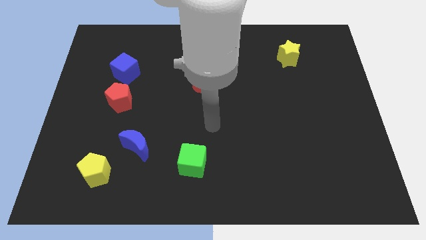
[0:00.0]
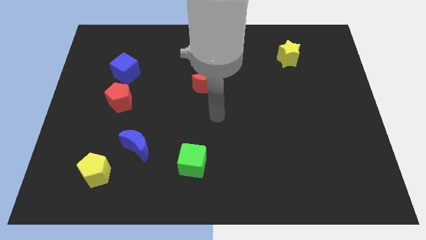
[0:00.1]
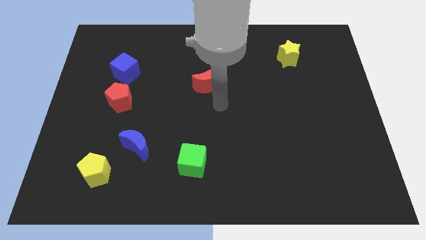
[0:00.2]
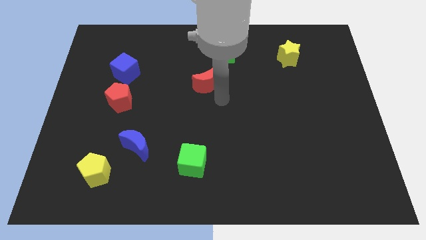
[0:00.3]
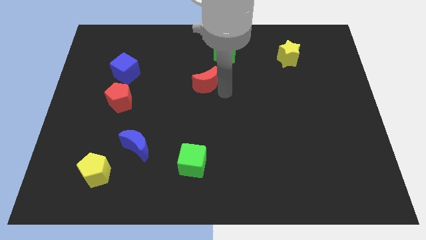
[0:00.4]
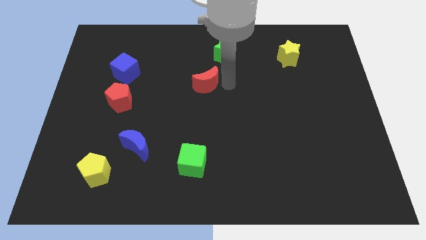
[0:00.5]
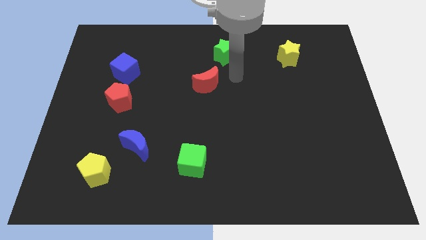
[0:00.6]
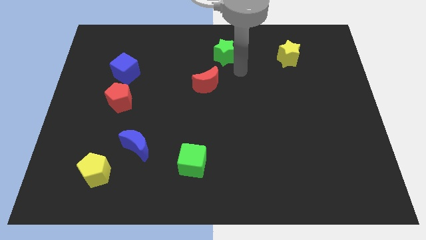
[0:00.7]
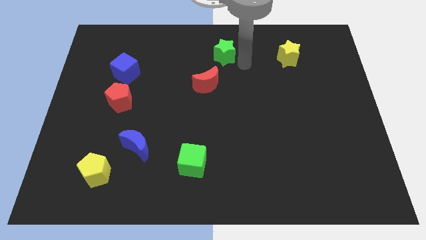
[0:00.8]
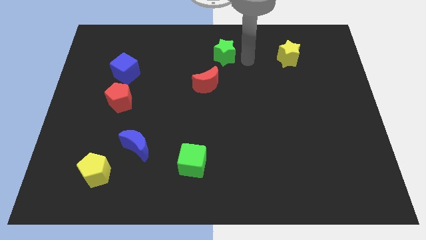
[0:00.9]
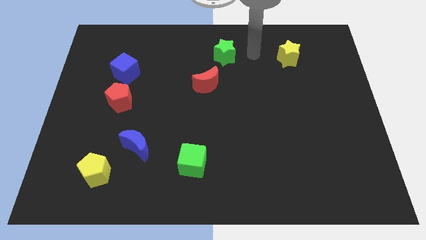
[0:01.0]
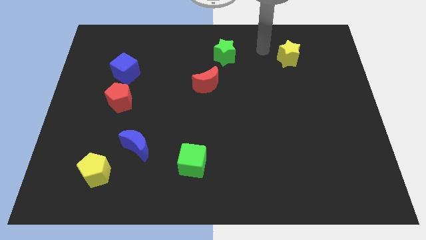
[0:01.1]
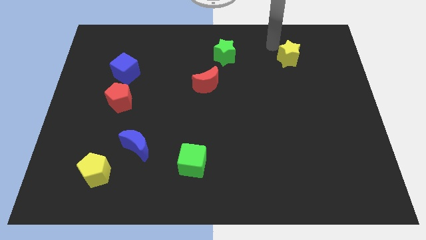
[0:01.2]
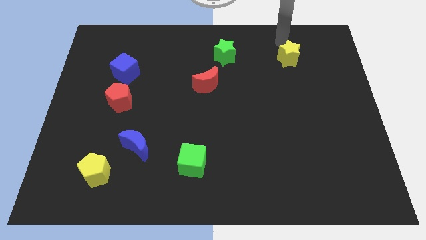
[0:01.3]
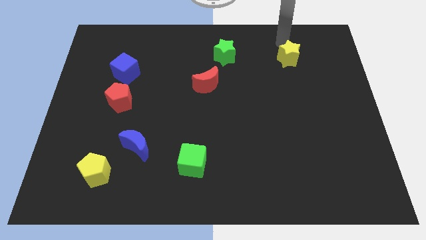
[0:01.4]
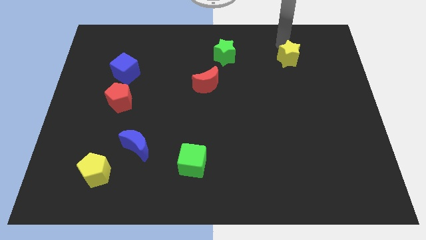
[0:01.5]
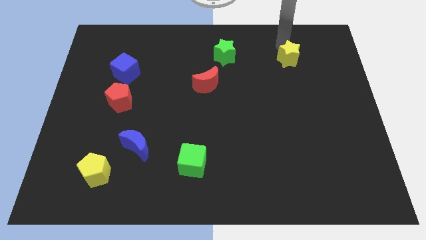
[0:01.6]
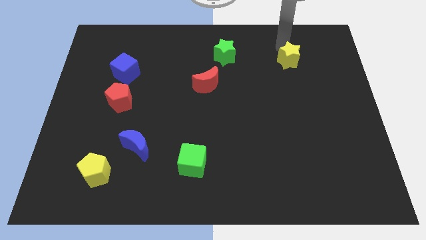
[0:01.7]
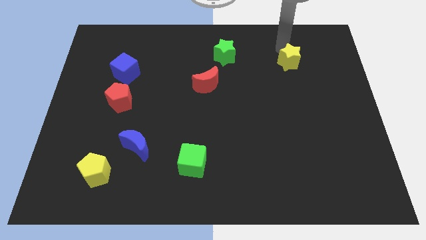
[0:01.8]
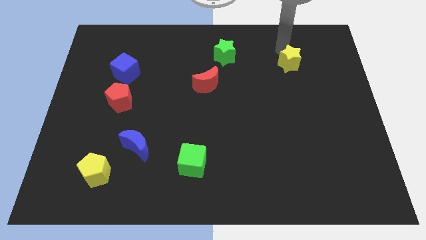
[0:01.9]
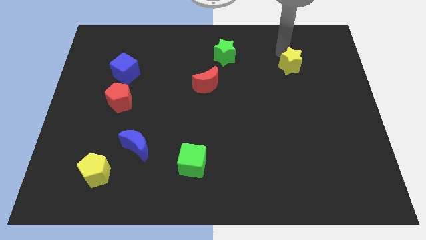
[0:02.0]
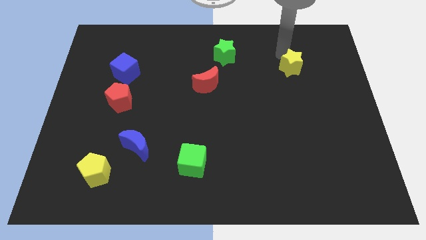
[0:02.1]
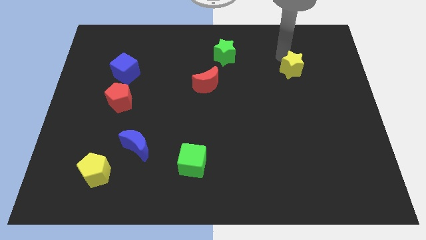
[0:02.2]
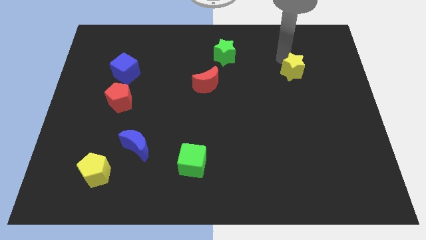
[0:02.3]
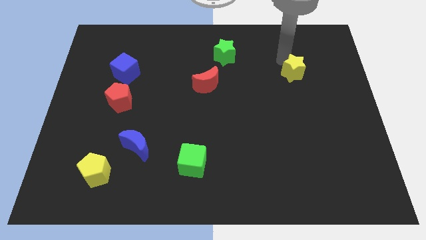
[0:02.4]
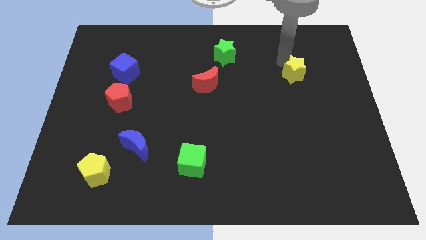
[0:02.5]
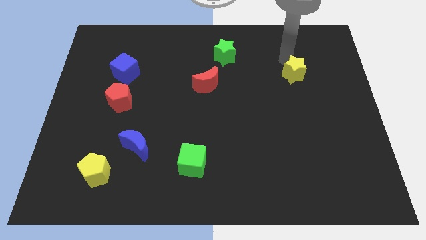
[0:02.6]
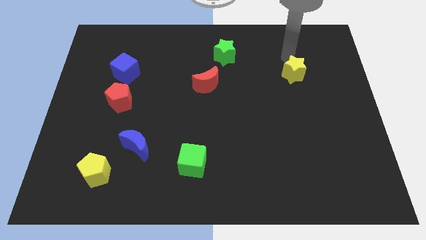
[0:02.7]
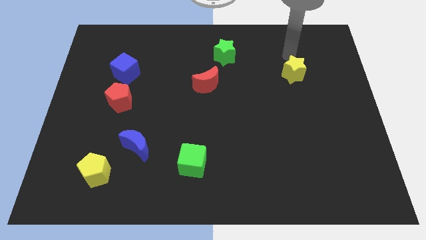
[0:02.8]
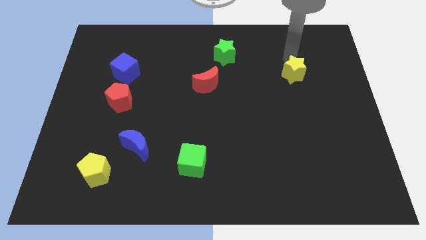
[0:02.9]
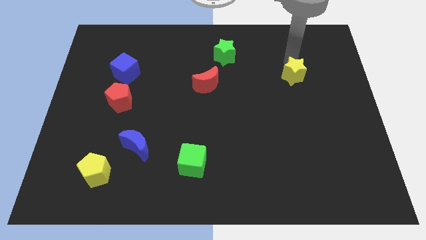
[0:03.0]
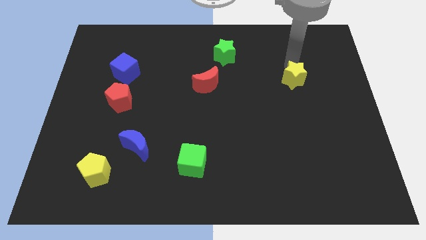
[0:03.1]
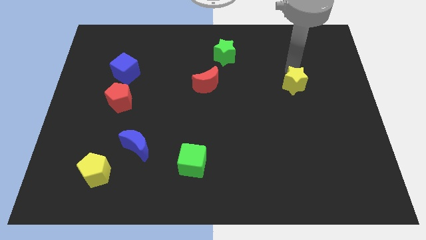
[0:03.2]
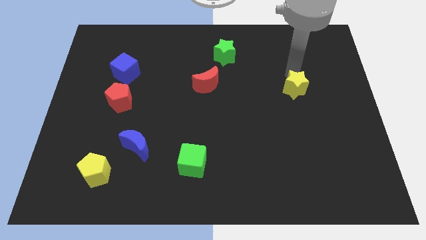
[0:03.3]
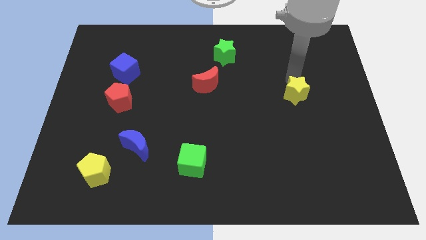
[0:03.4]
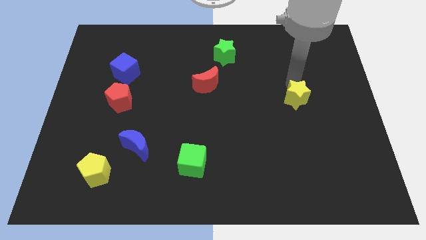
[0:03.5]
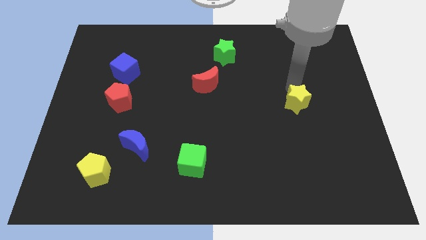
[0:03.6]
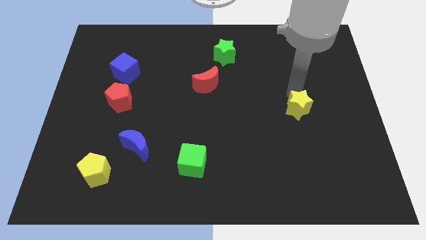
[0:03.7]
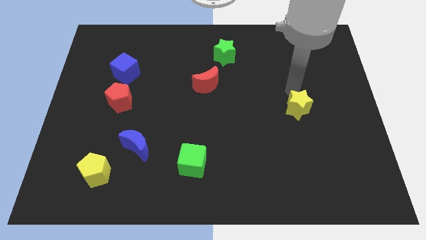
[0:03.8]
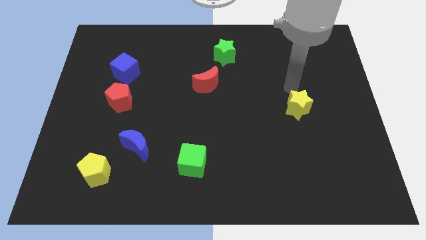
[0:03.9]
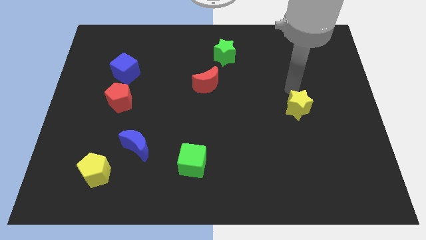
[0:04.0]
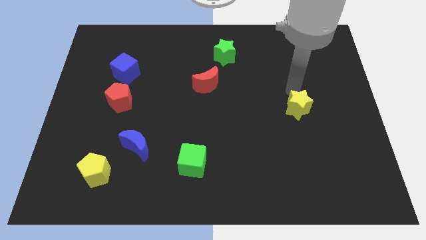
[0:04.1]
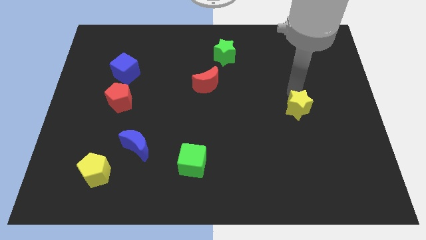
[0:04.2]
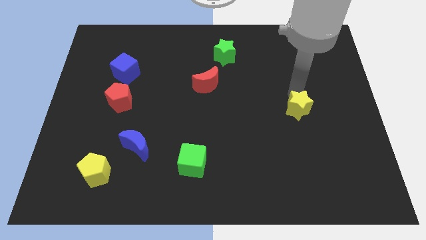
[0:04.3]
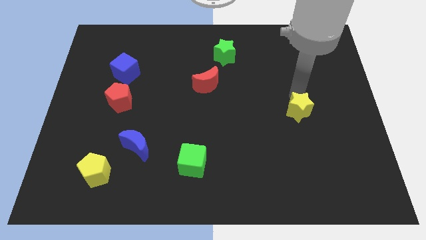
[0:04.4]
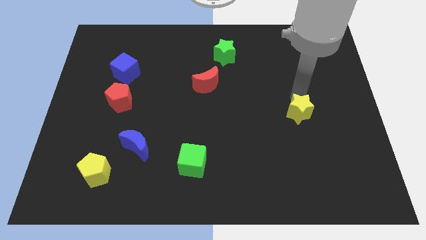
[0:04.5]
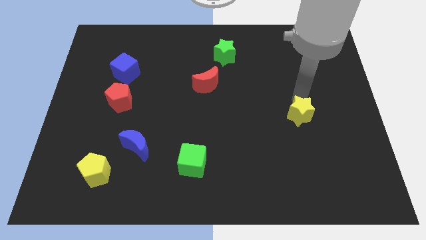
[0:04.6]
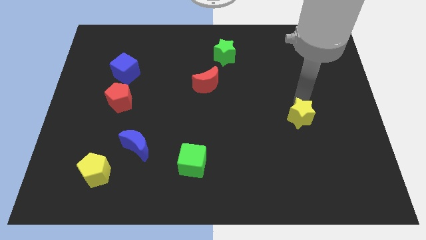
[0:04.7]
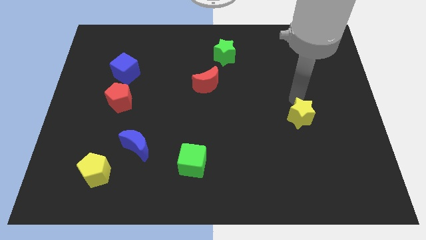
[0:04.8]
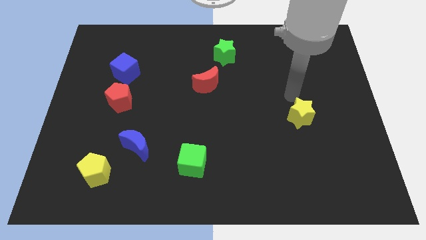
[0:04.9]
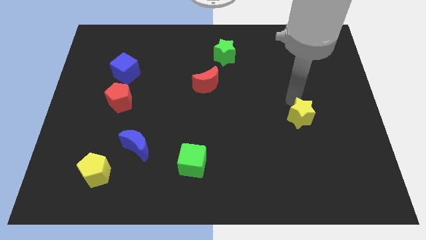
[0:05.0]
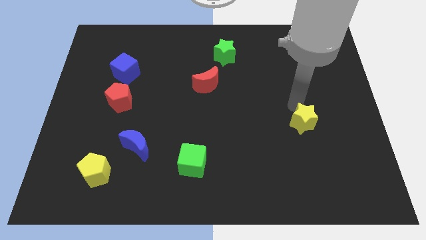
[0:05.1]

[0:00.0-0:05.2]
push the yellow star down

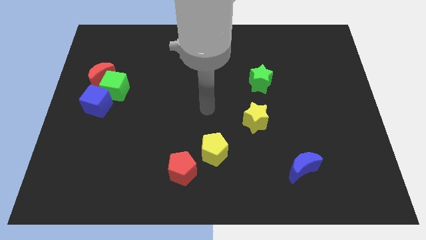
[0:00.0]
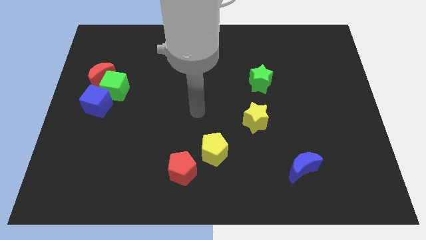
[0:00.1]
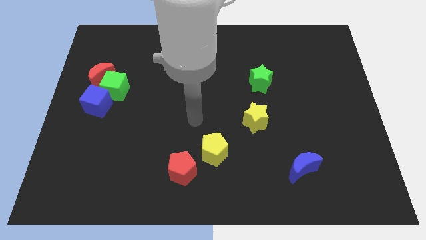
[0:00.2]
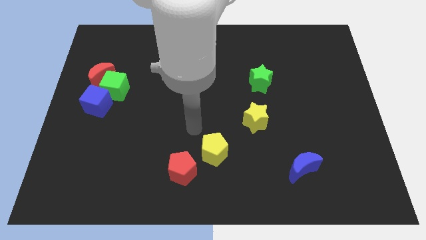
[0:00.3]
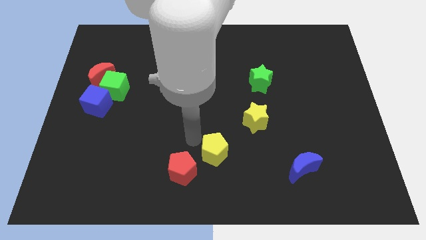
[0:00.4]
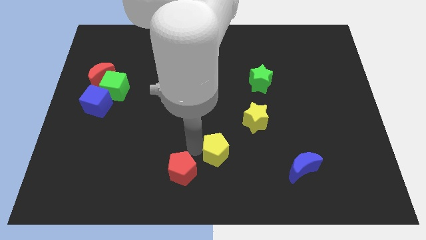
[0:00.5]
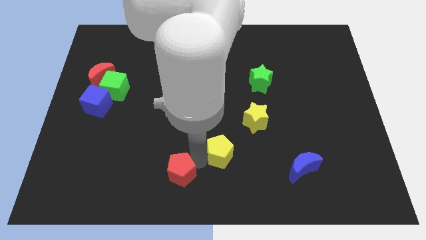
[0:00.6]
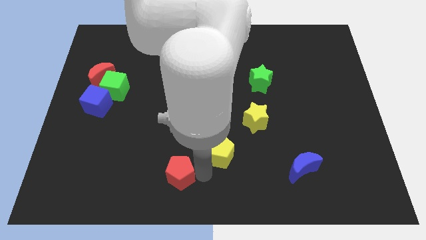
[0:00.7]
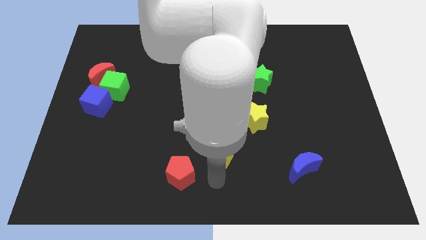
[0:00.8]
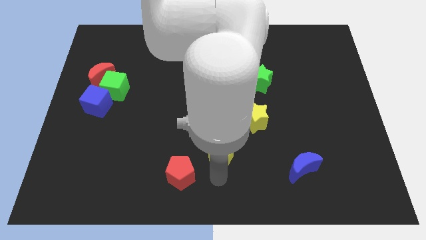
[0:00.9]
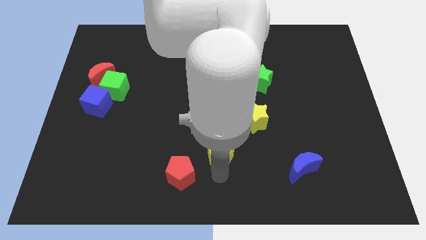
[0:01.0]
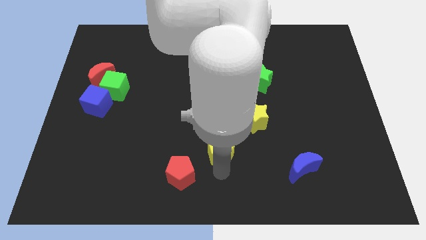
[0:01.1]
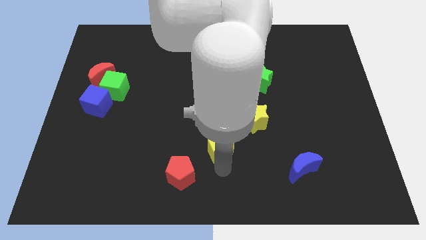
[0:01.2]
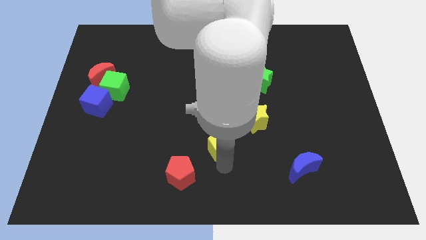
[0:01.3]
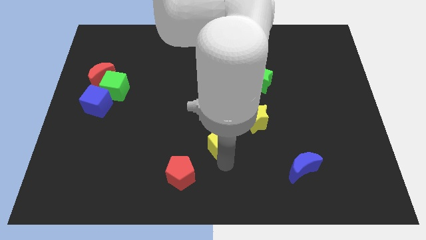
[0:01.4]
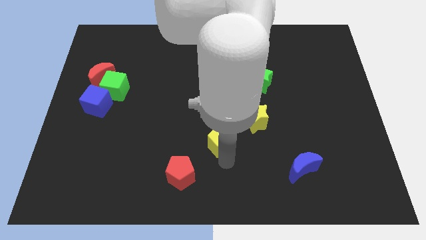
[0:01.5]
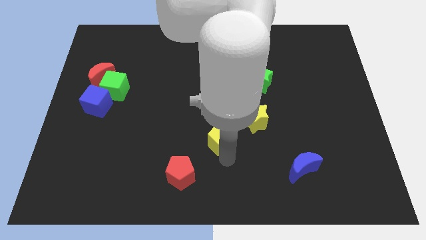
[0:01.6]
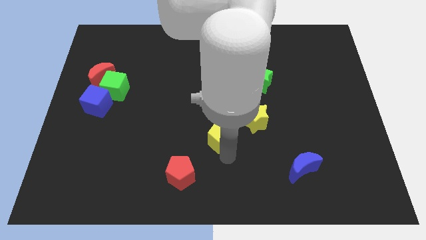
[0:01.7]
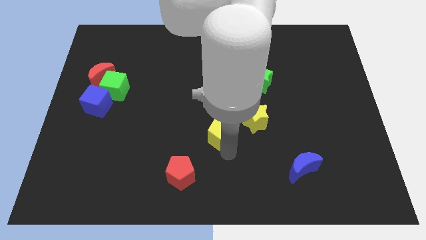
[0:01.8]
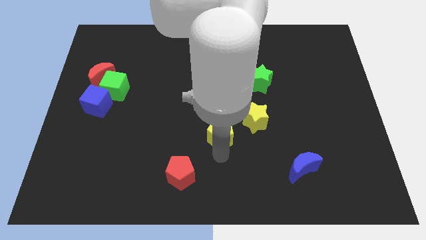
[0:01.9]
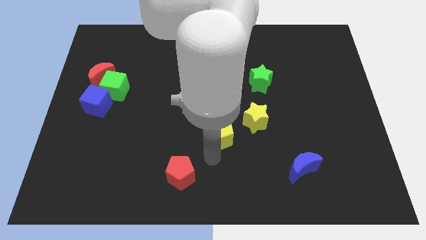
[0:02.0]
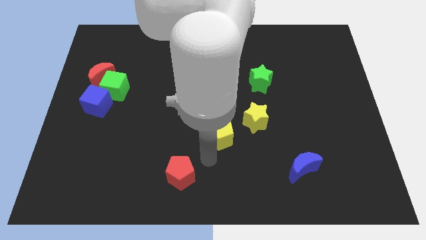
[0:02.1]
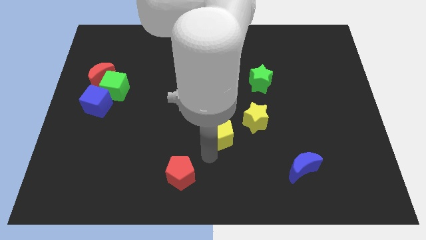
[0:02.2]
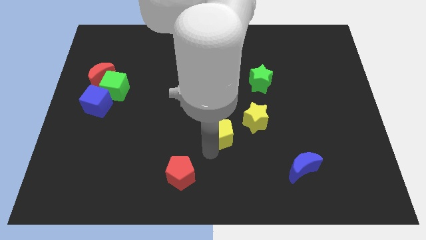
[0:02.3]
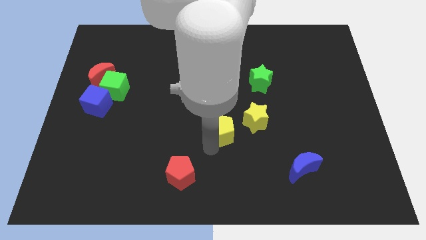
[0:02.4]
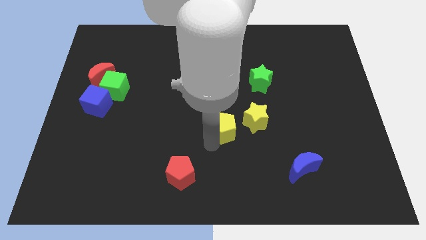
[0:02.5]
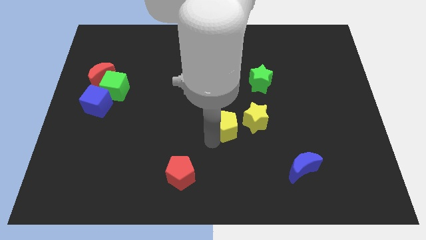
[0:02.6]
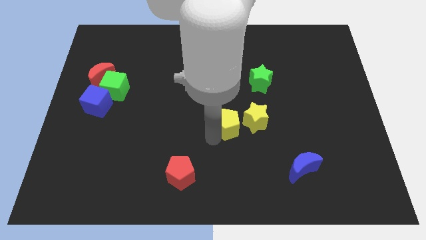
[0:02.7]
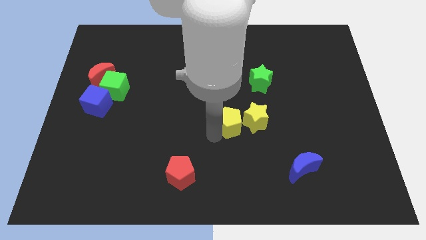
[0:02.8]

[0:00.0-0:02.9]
slightly move the yellow pentagon up and right diagonally
